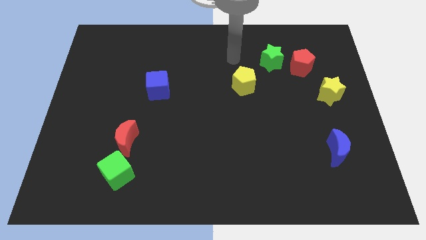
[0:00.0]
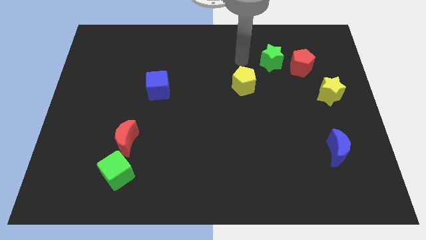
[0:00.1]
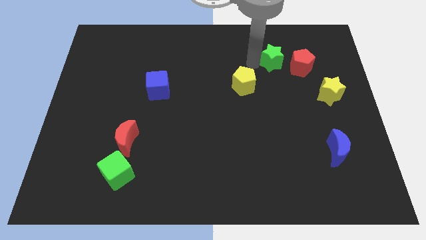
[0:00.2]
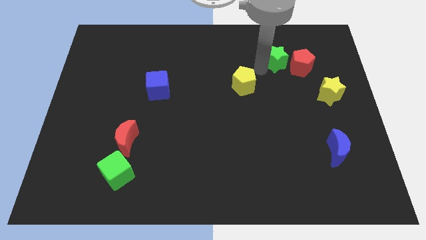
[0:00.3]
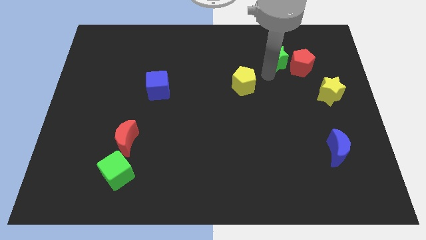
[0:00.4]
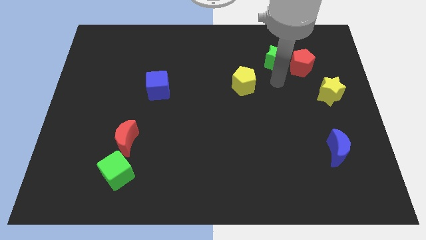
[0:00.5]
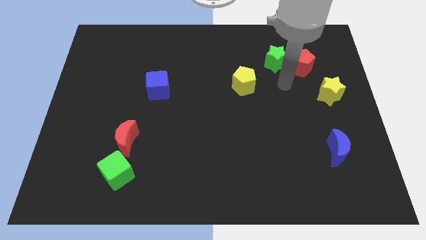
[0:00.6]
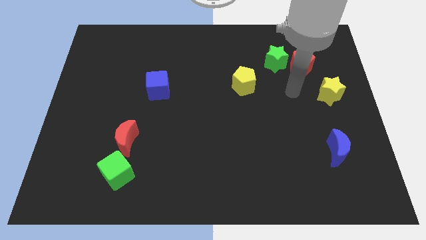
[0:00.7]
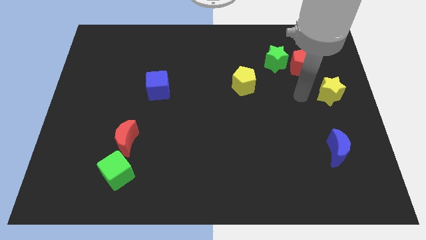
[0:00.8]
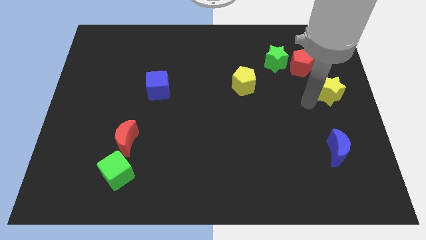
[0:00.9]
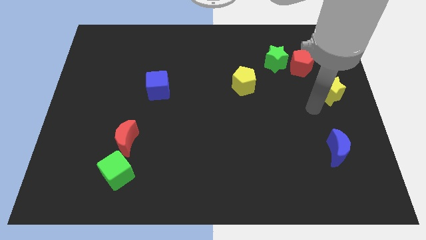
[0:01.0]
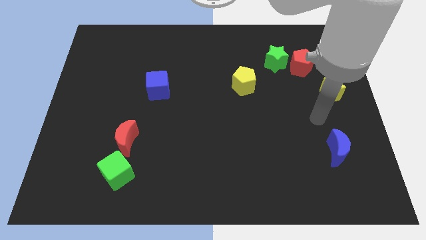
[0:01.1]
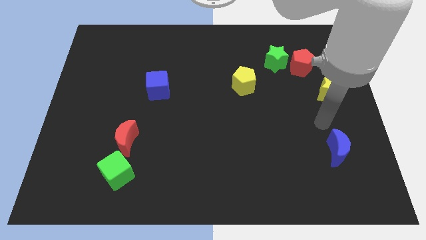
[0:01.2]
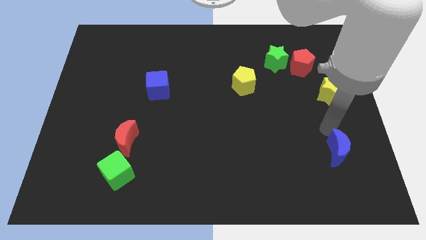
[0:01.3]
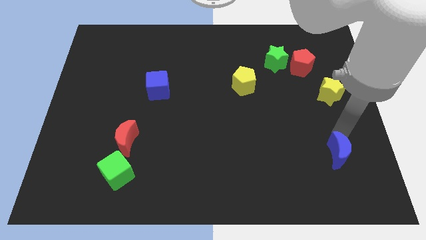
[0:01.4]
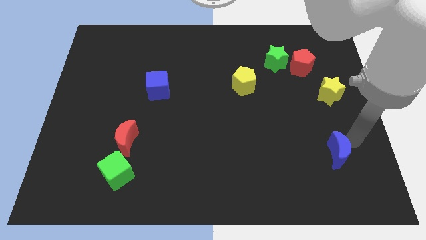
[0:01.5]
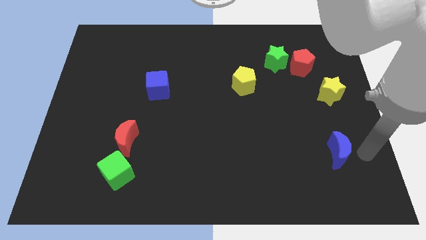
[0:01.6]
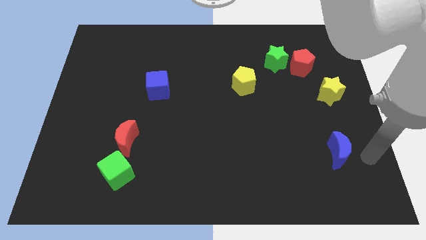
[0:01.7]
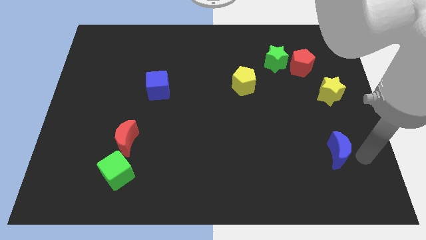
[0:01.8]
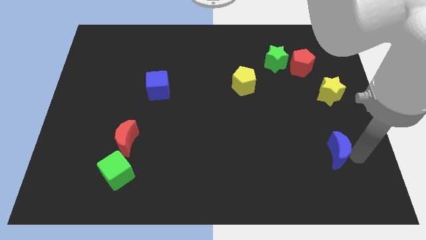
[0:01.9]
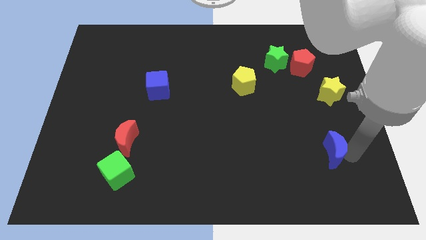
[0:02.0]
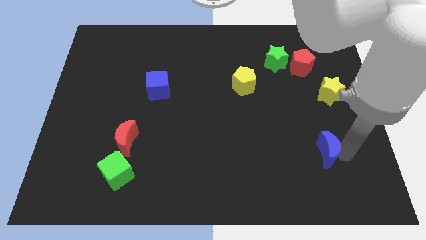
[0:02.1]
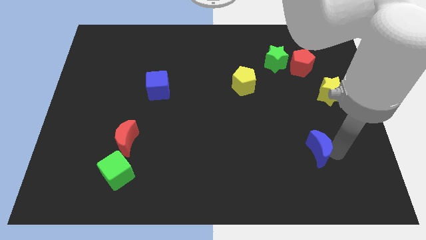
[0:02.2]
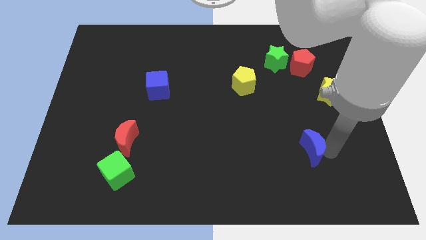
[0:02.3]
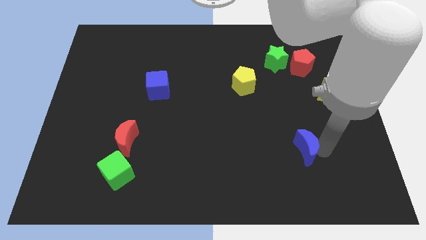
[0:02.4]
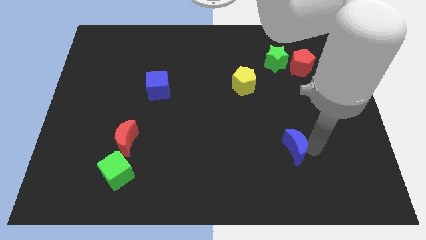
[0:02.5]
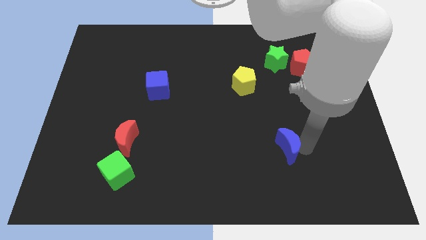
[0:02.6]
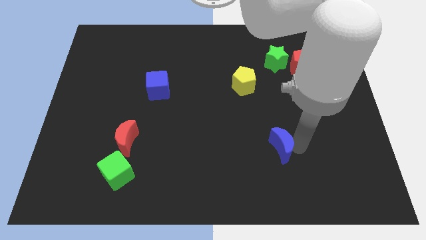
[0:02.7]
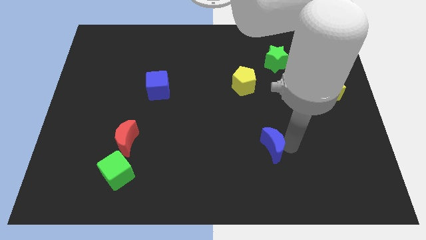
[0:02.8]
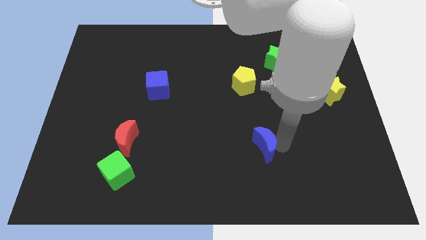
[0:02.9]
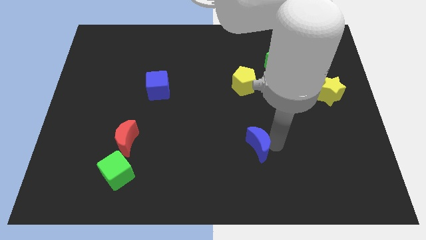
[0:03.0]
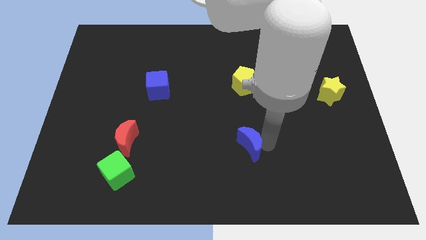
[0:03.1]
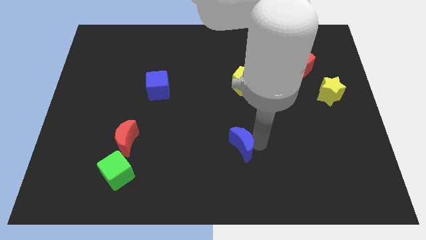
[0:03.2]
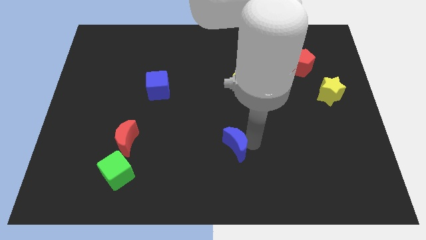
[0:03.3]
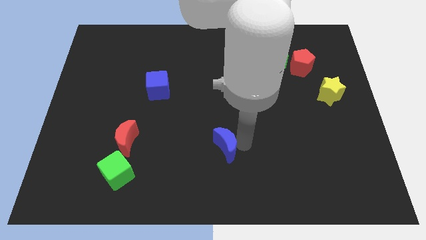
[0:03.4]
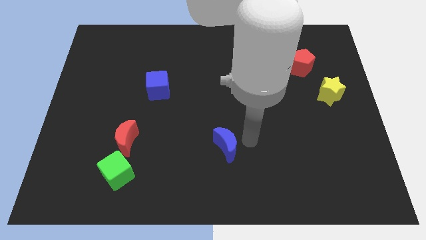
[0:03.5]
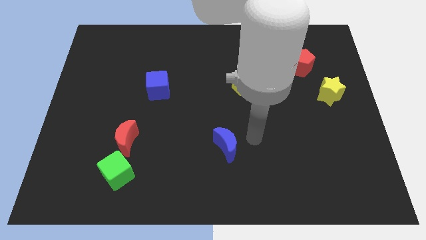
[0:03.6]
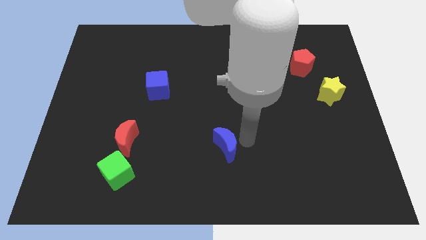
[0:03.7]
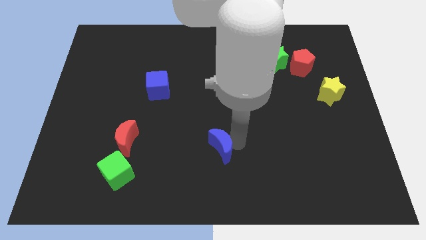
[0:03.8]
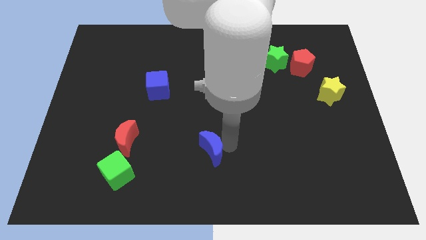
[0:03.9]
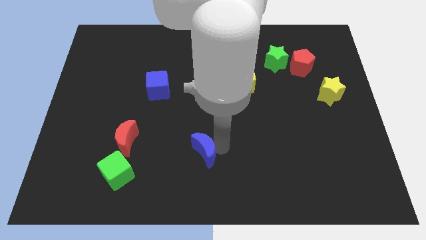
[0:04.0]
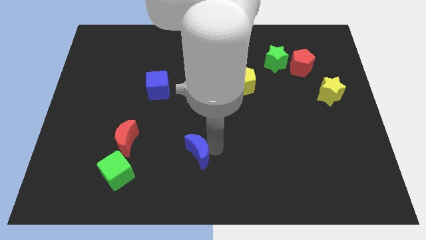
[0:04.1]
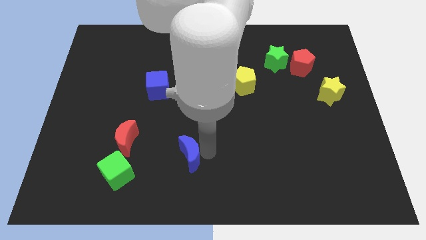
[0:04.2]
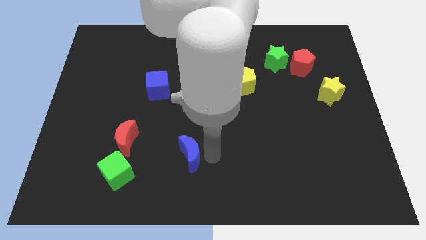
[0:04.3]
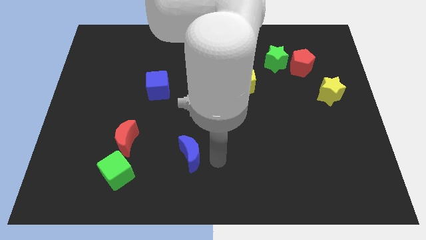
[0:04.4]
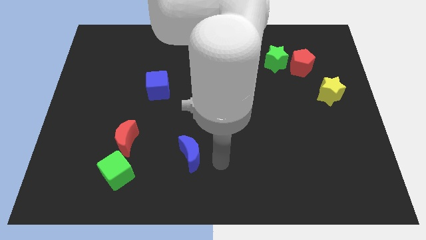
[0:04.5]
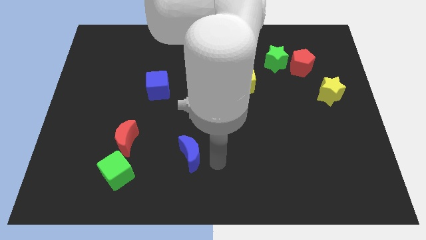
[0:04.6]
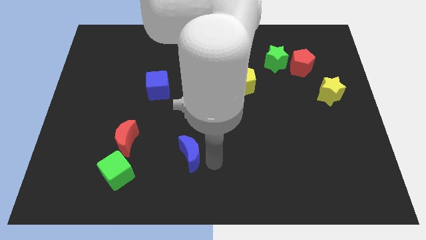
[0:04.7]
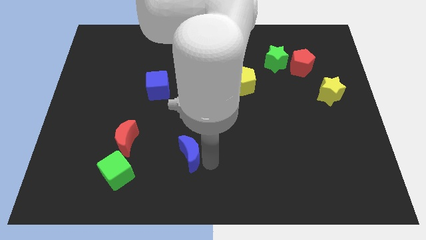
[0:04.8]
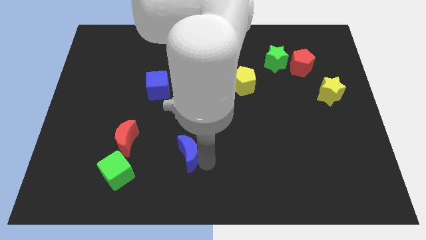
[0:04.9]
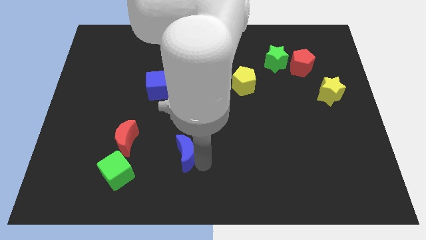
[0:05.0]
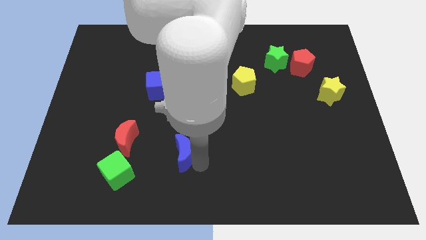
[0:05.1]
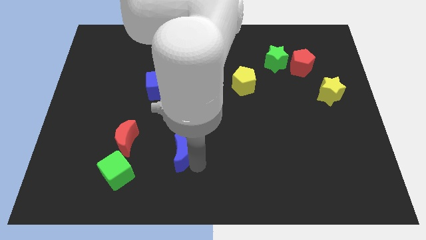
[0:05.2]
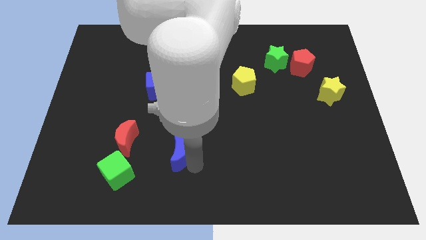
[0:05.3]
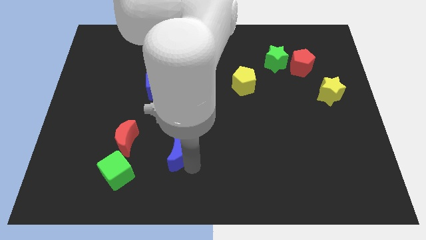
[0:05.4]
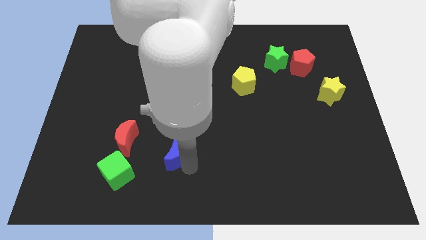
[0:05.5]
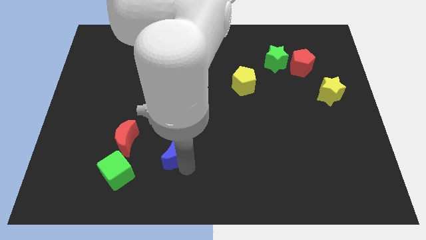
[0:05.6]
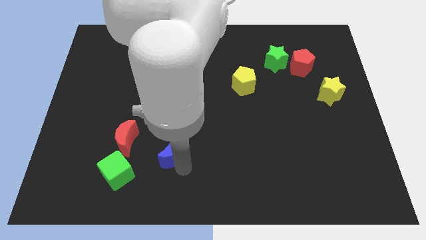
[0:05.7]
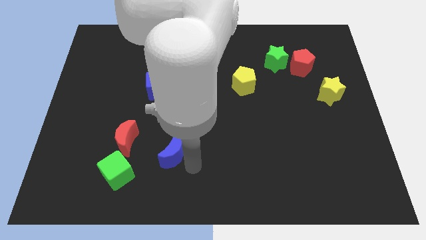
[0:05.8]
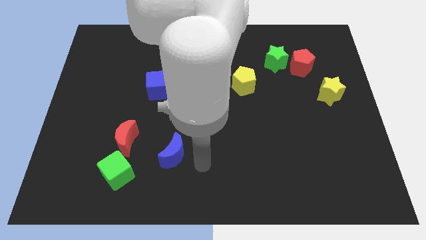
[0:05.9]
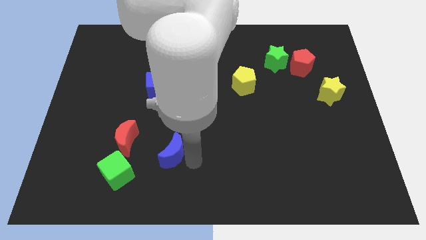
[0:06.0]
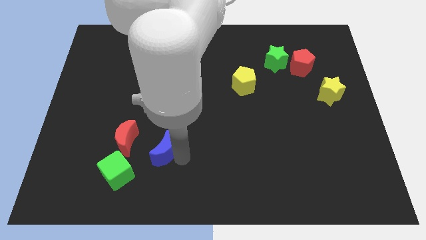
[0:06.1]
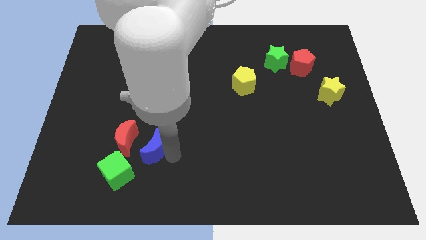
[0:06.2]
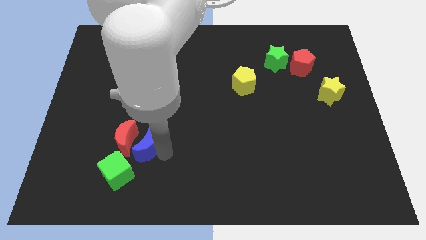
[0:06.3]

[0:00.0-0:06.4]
slide the blue moon close to the red moon

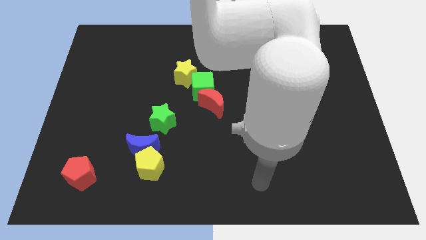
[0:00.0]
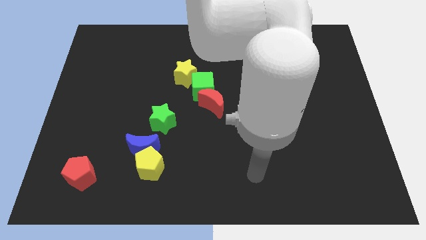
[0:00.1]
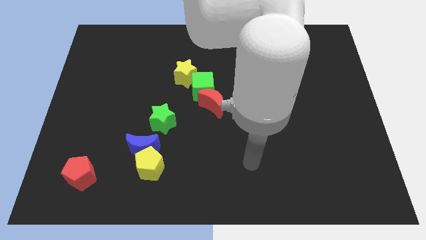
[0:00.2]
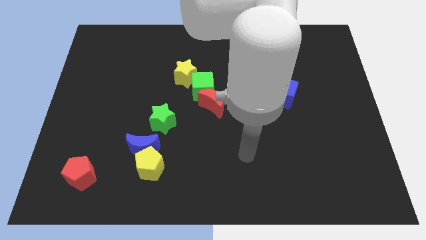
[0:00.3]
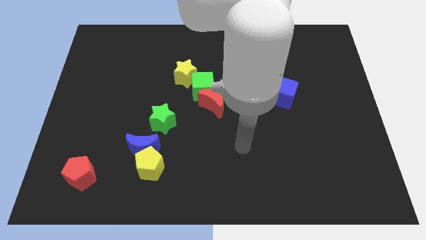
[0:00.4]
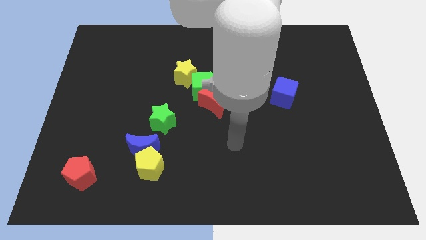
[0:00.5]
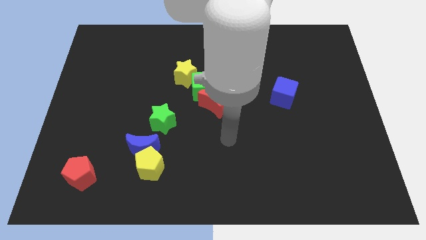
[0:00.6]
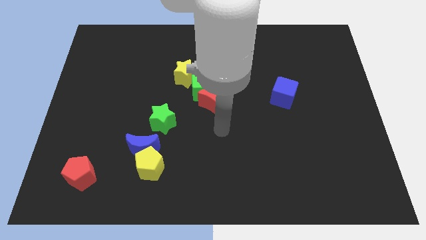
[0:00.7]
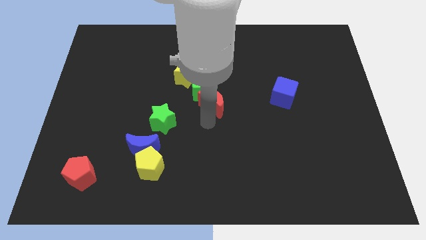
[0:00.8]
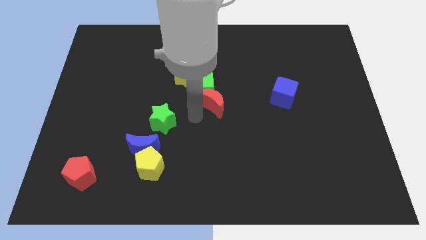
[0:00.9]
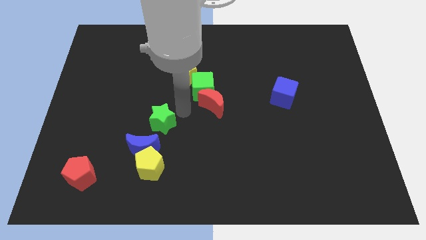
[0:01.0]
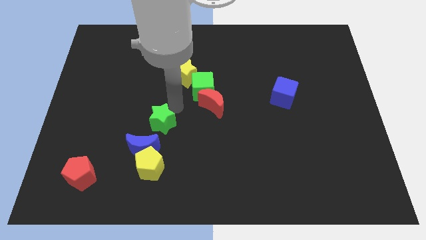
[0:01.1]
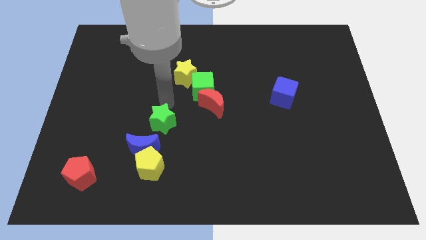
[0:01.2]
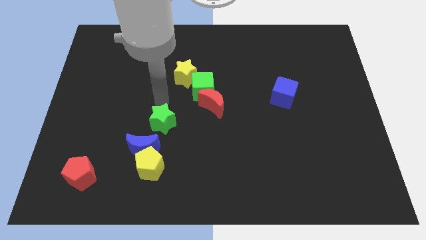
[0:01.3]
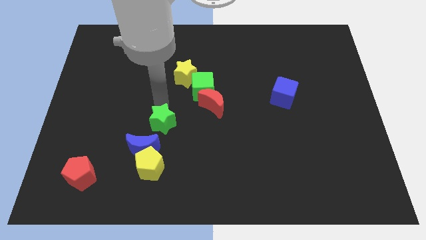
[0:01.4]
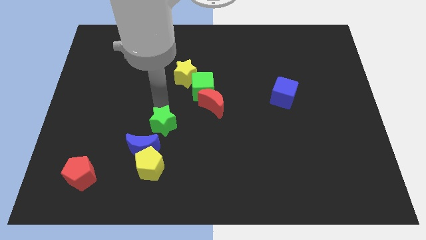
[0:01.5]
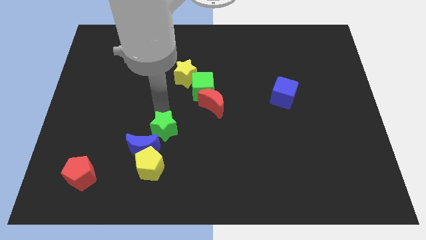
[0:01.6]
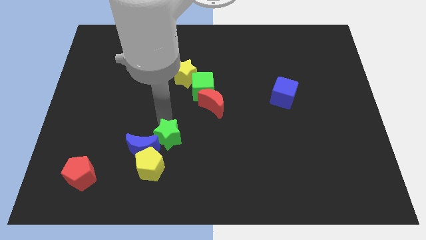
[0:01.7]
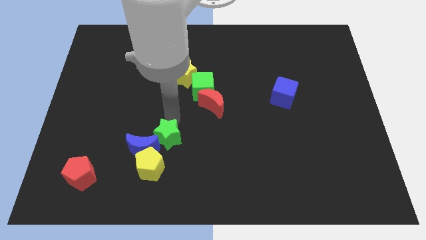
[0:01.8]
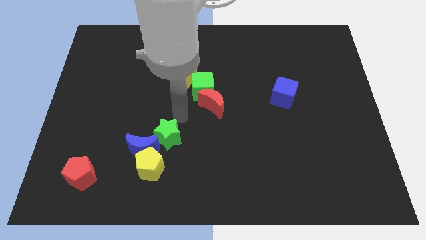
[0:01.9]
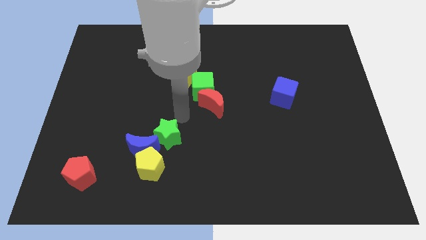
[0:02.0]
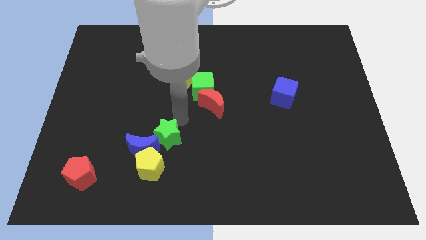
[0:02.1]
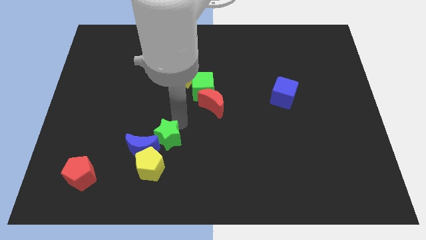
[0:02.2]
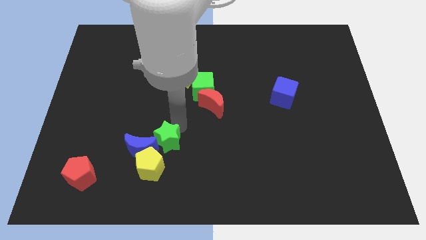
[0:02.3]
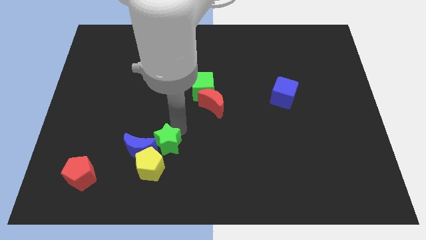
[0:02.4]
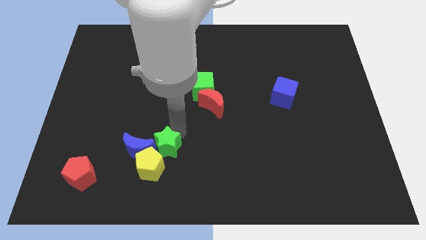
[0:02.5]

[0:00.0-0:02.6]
push the green star towards the yellow pentagon
